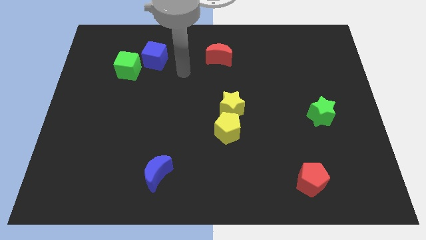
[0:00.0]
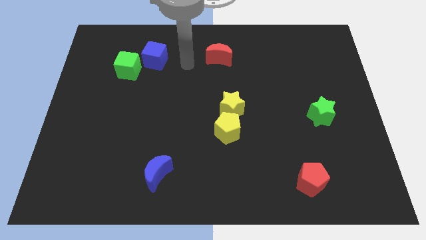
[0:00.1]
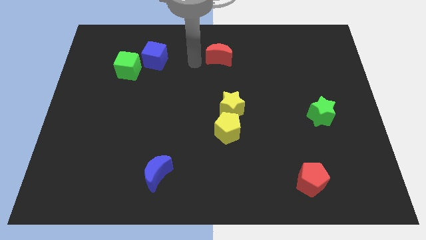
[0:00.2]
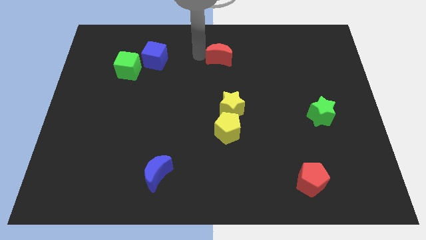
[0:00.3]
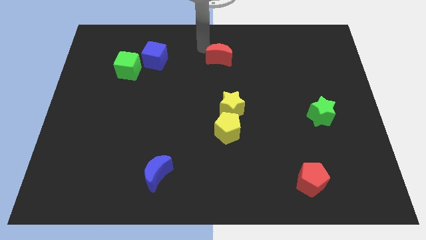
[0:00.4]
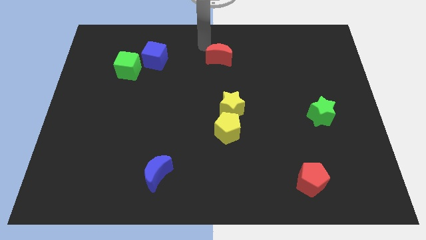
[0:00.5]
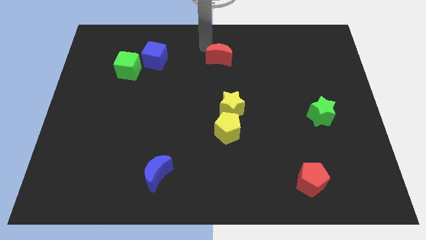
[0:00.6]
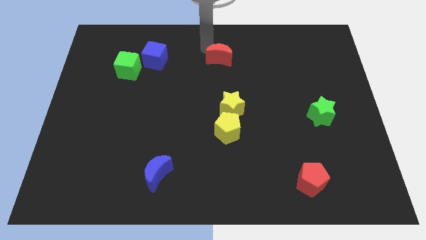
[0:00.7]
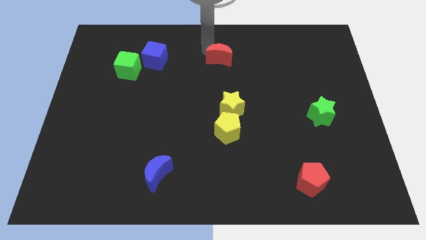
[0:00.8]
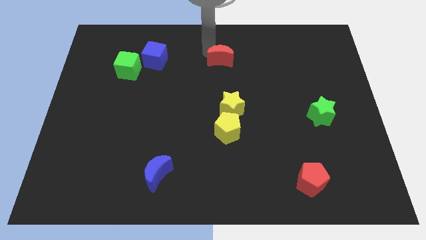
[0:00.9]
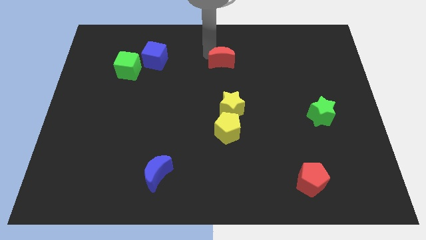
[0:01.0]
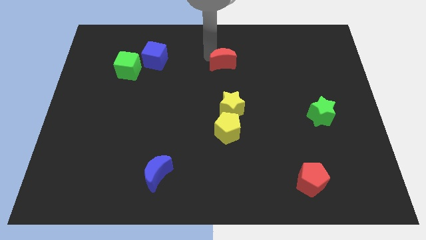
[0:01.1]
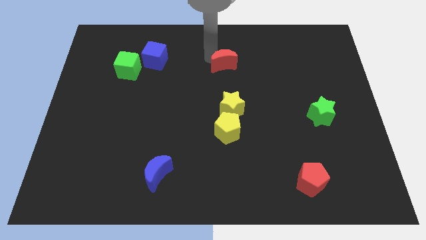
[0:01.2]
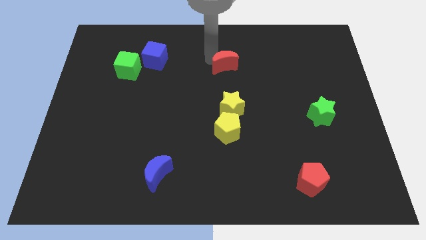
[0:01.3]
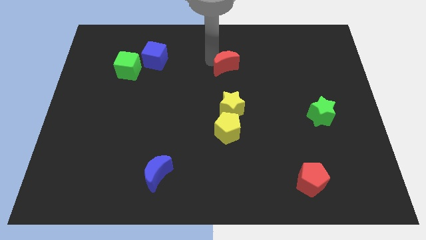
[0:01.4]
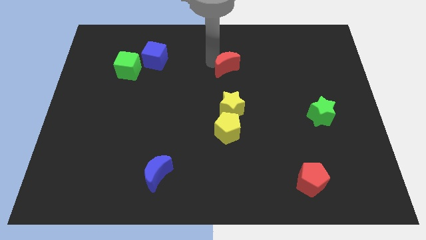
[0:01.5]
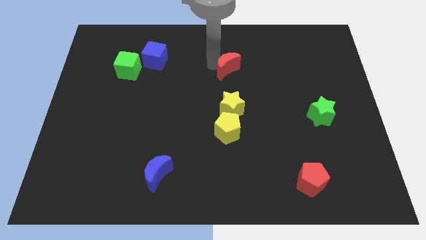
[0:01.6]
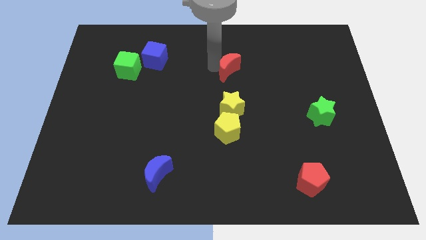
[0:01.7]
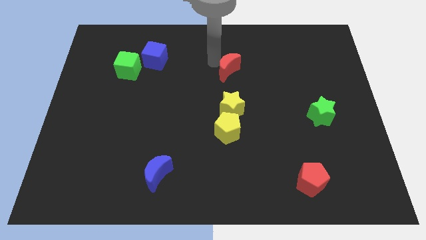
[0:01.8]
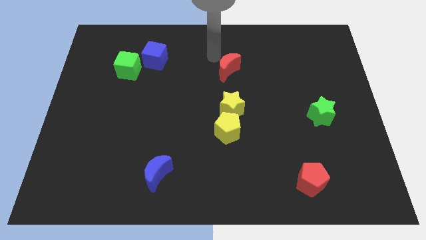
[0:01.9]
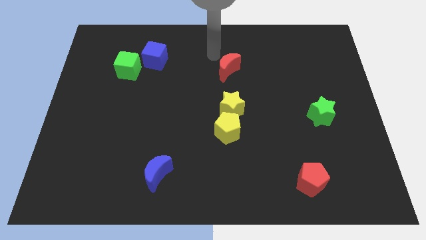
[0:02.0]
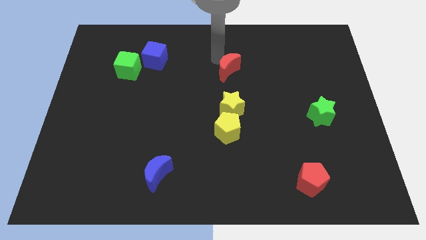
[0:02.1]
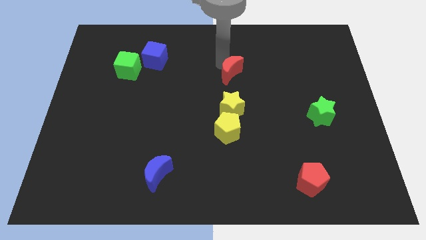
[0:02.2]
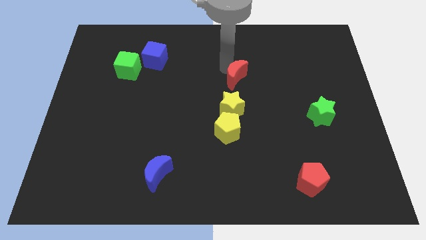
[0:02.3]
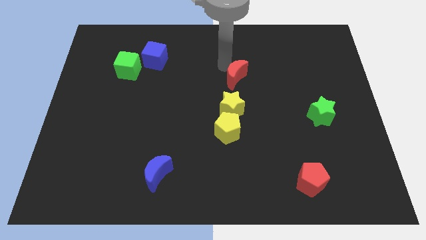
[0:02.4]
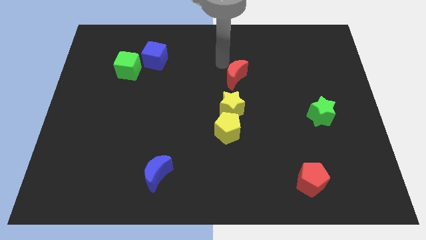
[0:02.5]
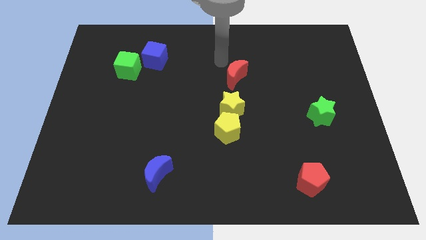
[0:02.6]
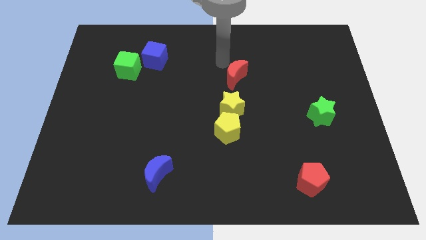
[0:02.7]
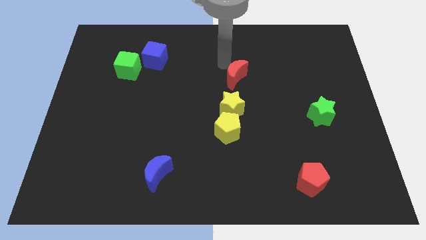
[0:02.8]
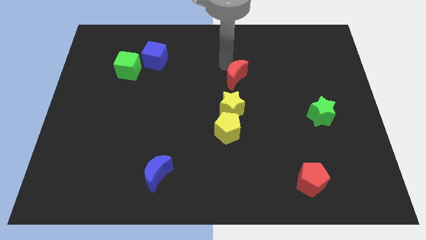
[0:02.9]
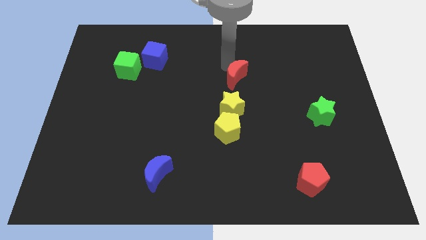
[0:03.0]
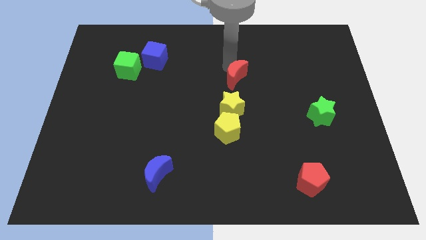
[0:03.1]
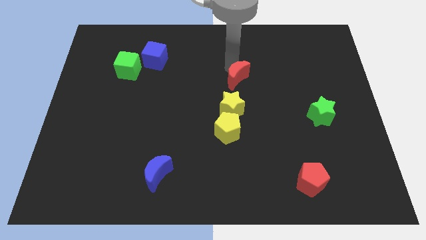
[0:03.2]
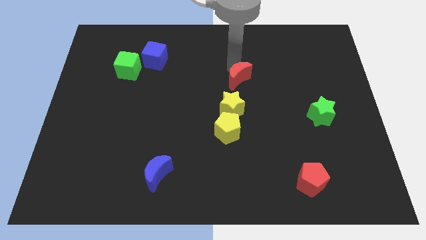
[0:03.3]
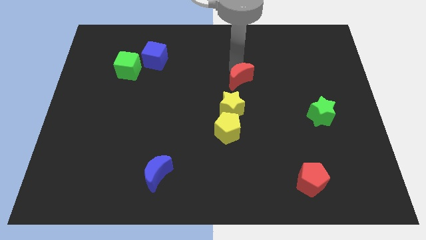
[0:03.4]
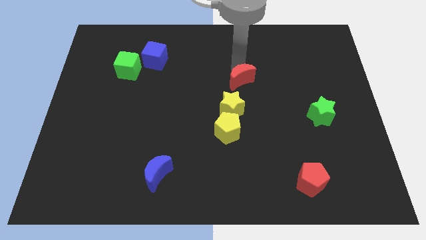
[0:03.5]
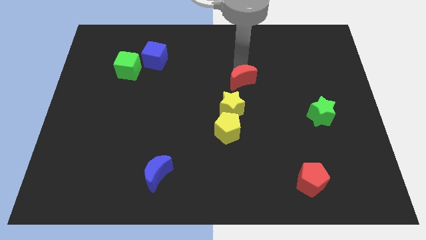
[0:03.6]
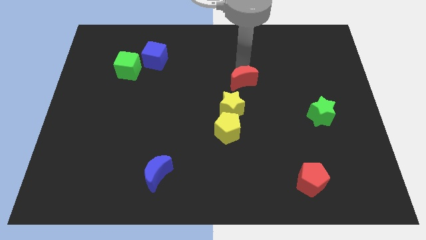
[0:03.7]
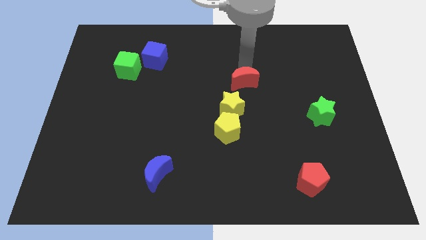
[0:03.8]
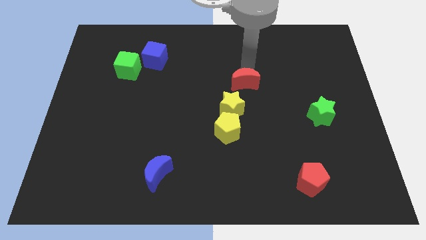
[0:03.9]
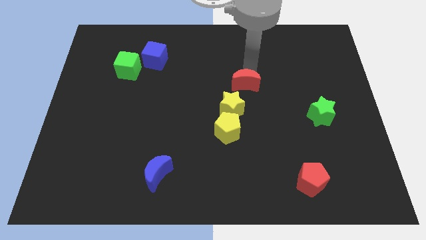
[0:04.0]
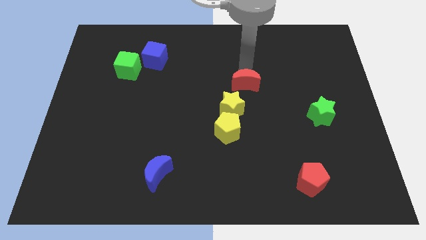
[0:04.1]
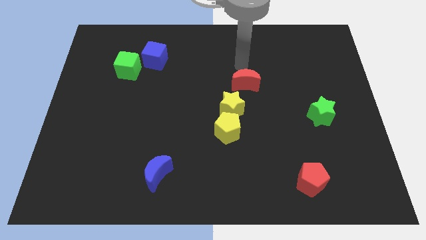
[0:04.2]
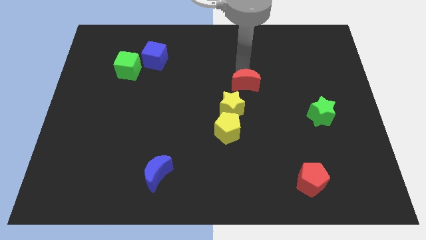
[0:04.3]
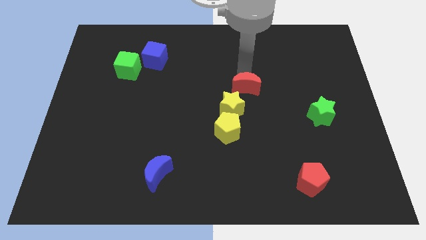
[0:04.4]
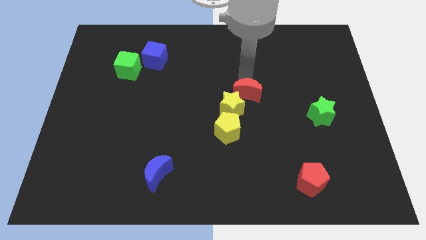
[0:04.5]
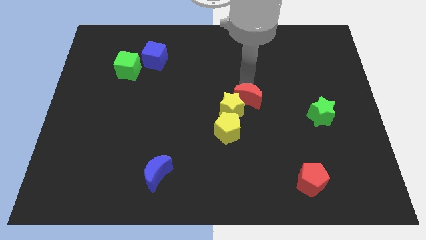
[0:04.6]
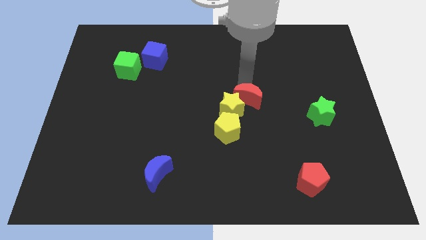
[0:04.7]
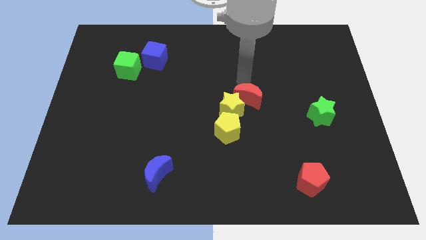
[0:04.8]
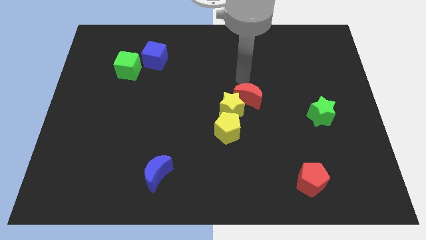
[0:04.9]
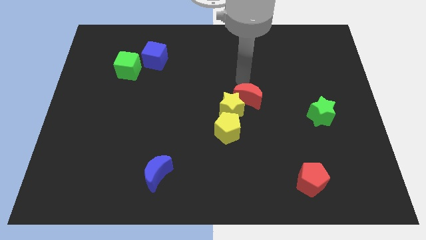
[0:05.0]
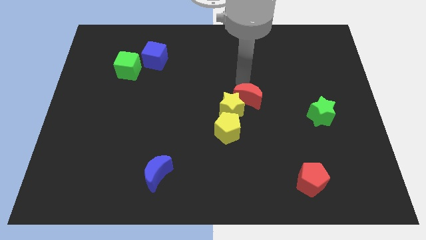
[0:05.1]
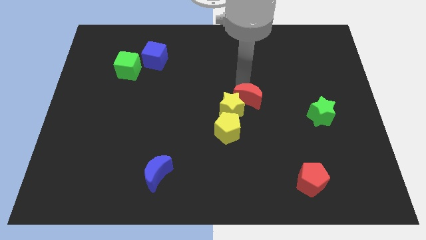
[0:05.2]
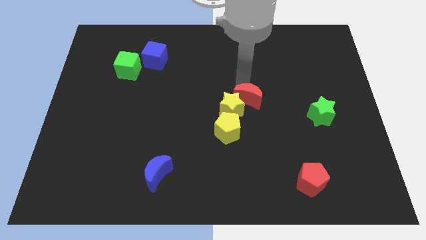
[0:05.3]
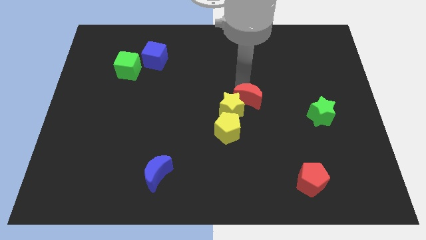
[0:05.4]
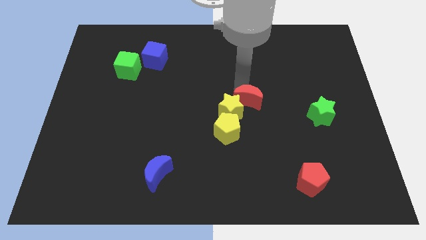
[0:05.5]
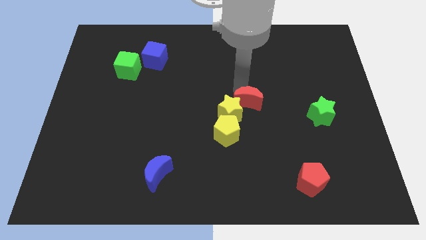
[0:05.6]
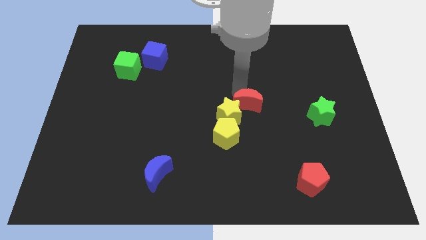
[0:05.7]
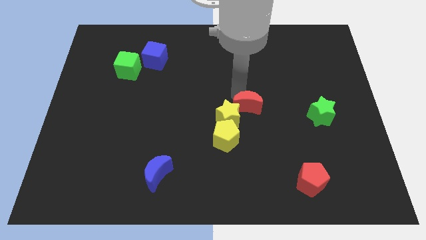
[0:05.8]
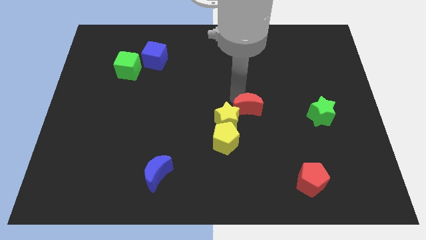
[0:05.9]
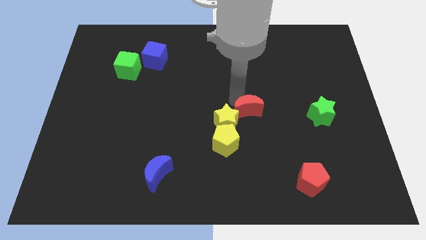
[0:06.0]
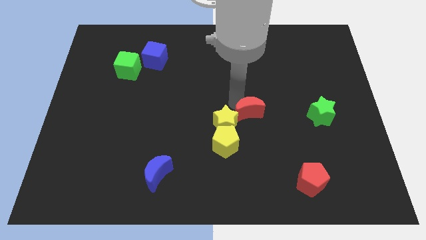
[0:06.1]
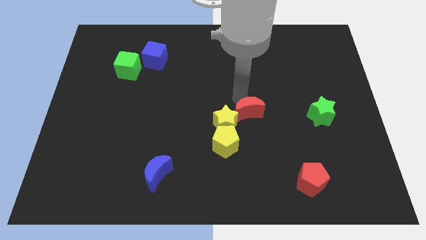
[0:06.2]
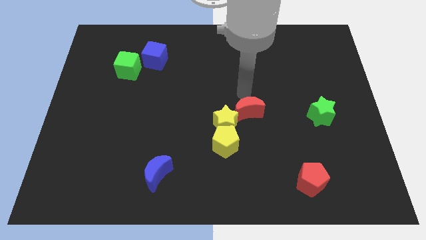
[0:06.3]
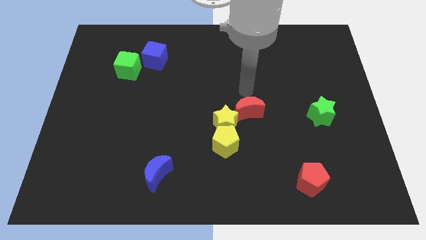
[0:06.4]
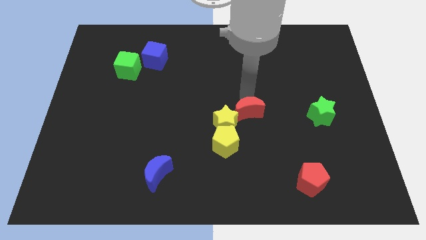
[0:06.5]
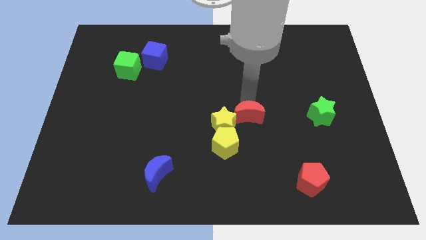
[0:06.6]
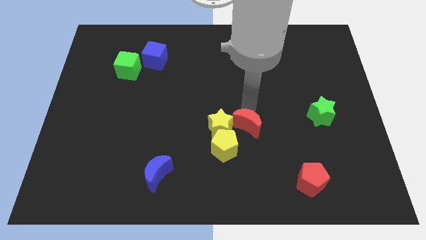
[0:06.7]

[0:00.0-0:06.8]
move the red moon to the bottom right side of the yellow star

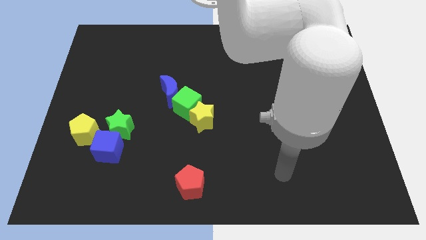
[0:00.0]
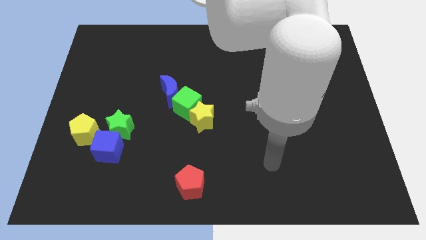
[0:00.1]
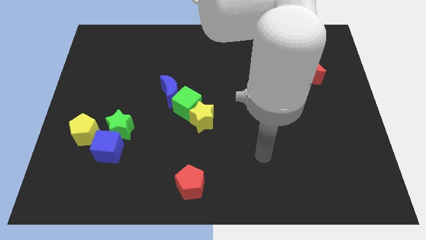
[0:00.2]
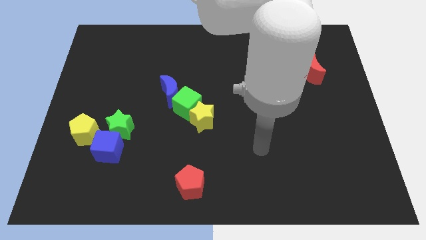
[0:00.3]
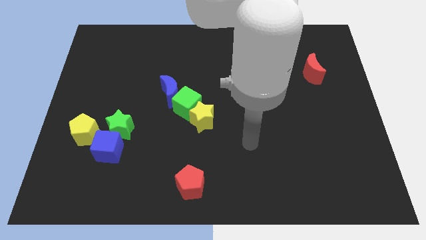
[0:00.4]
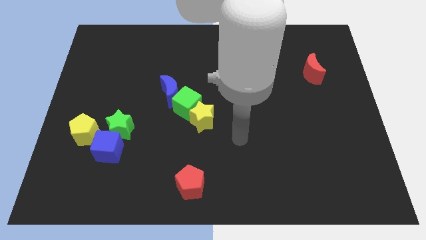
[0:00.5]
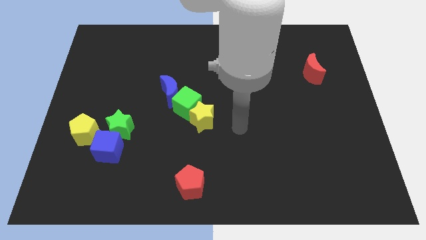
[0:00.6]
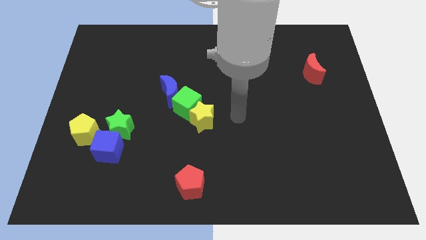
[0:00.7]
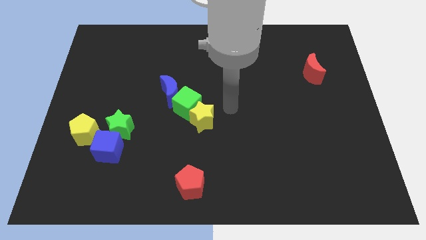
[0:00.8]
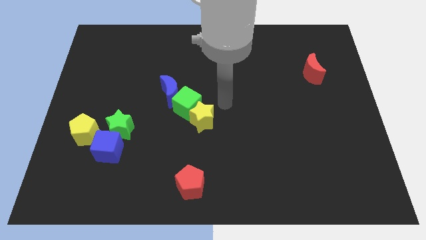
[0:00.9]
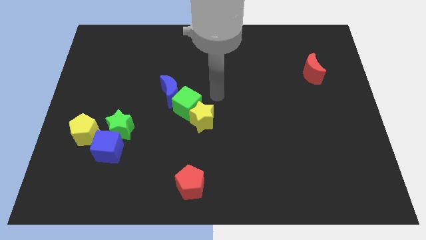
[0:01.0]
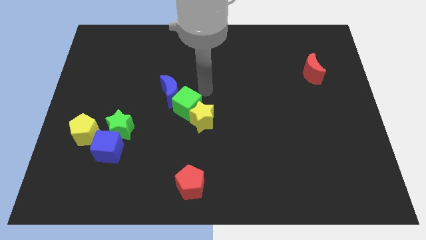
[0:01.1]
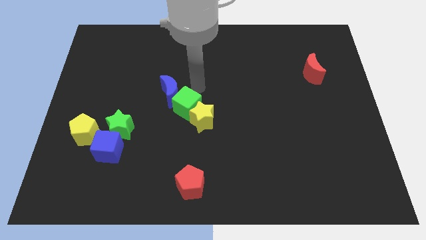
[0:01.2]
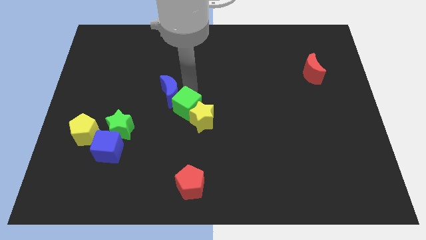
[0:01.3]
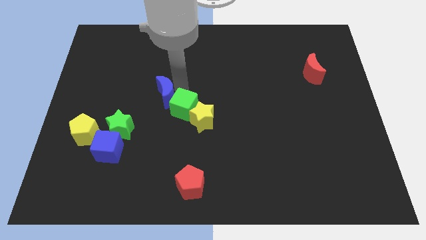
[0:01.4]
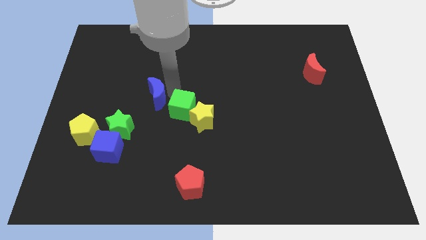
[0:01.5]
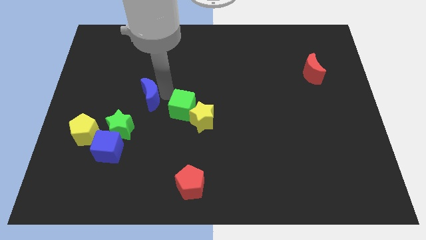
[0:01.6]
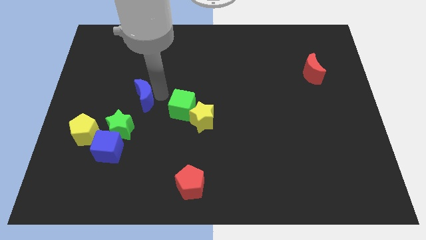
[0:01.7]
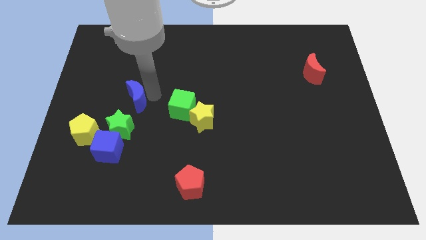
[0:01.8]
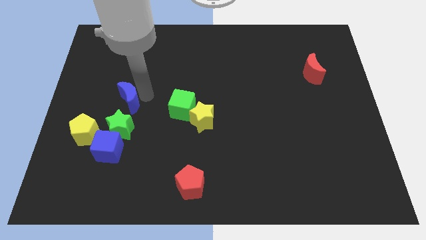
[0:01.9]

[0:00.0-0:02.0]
push the blue moon to the top of the blue cube
